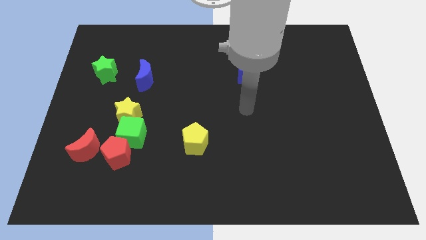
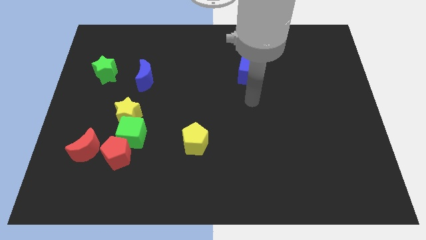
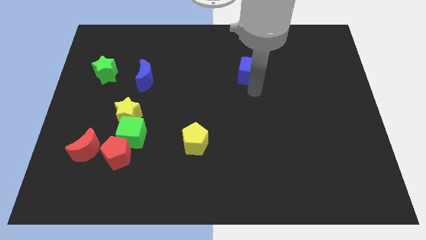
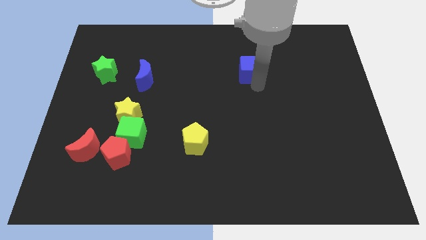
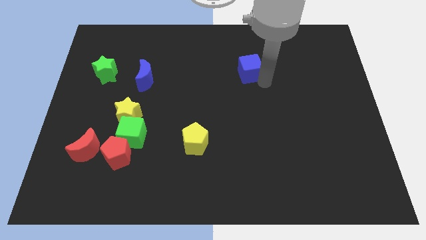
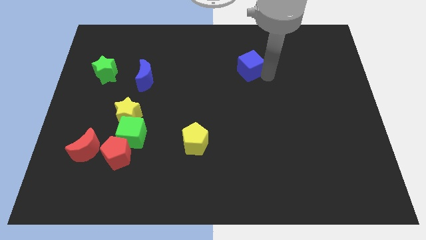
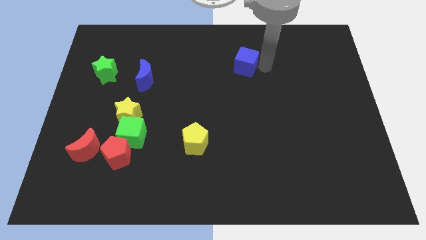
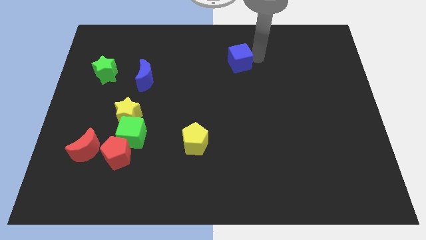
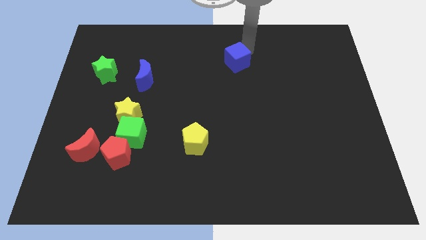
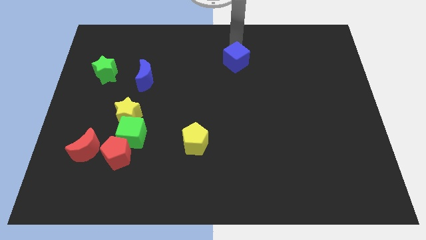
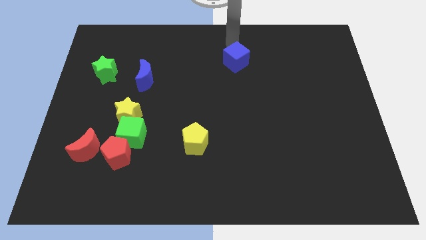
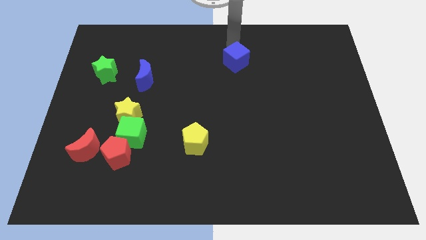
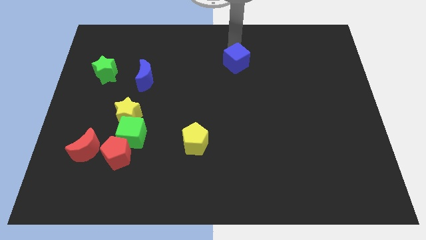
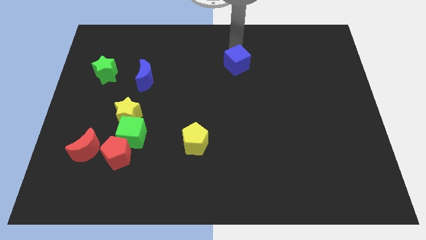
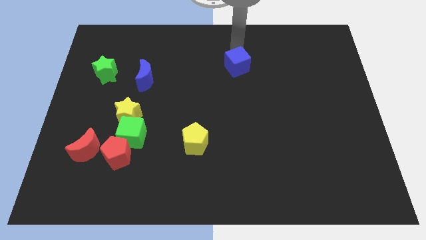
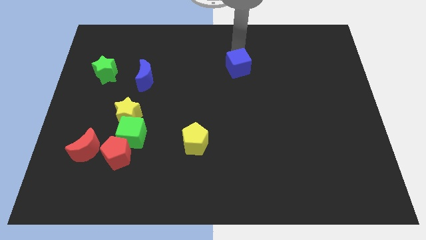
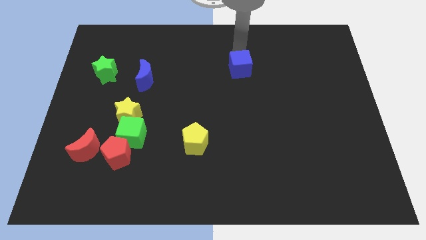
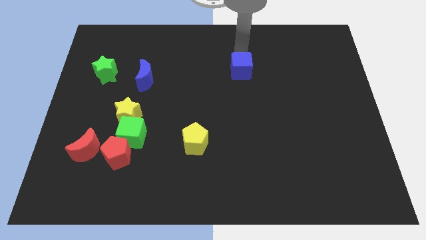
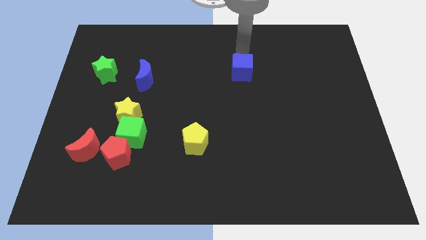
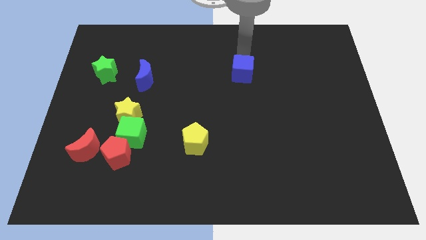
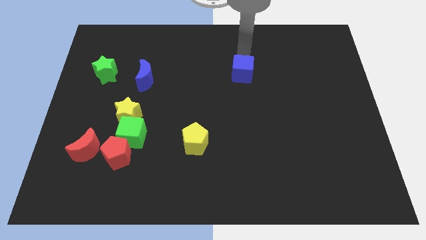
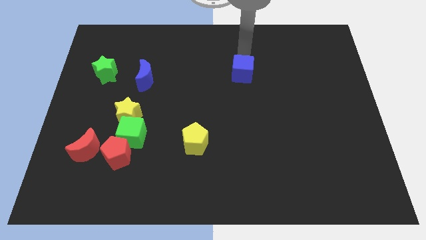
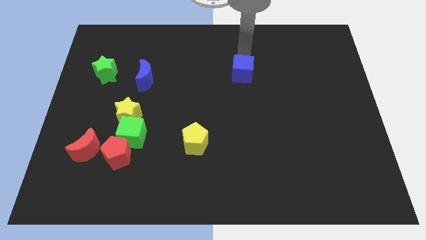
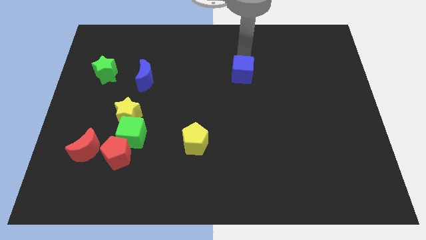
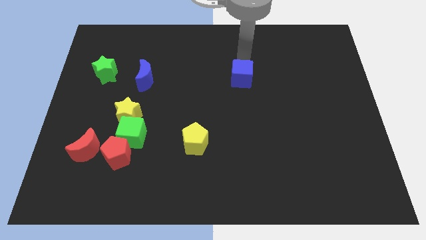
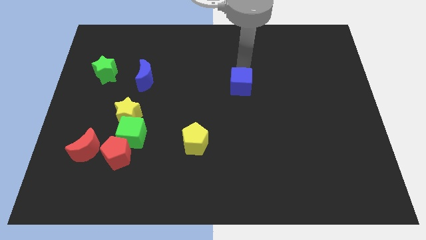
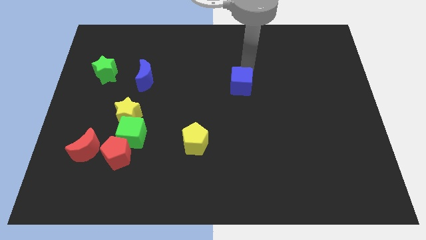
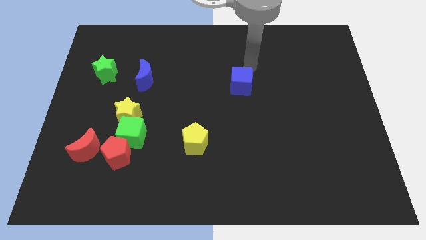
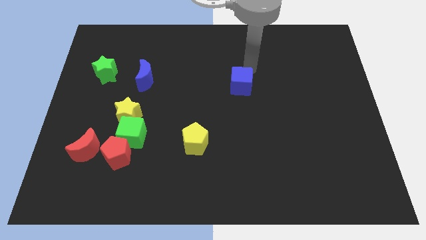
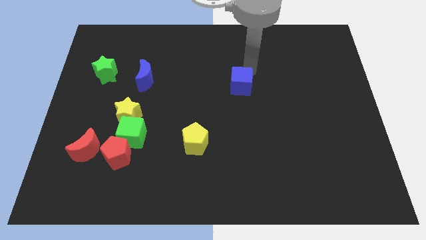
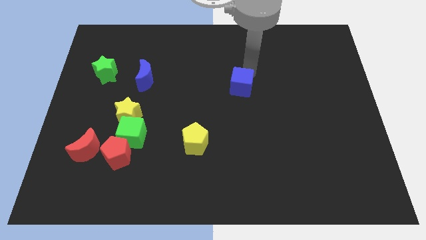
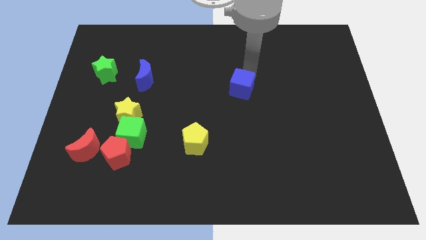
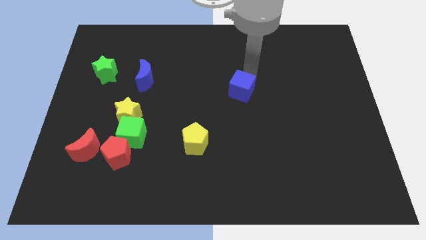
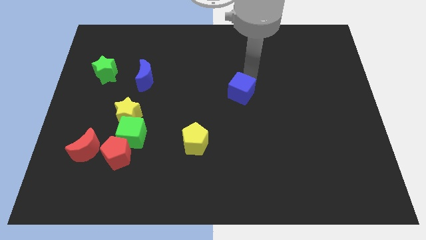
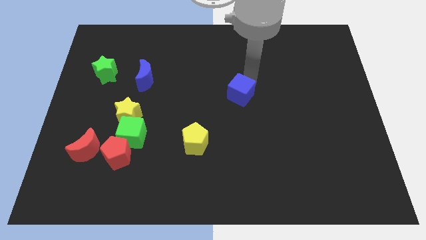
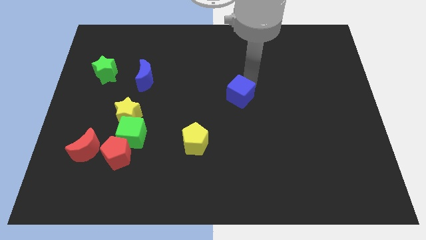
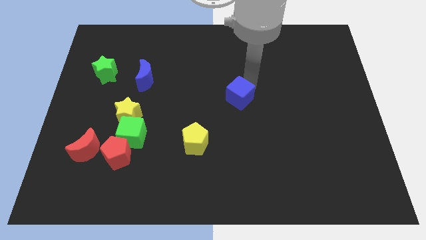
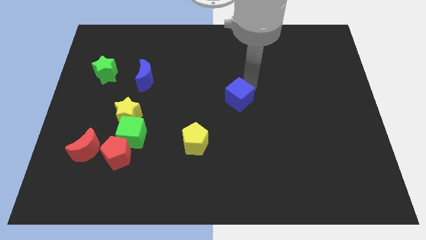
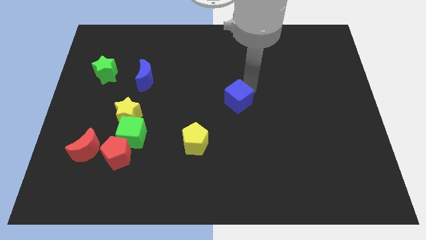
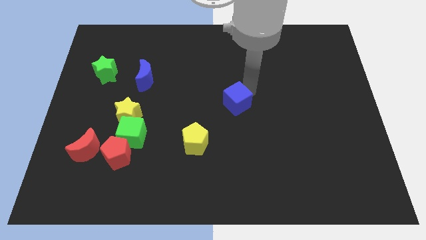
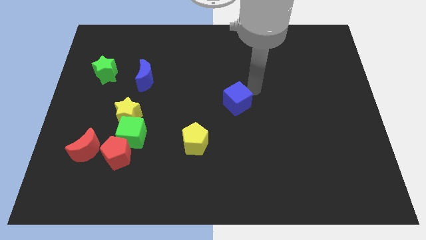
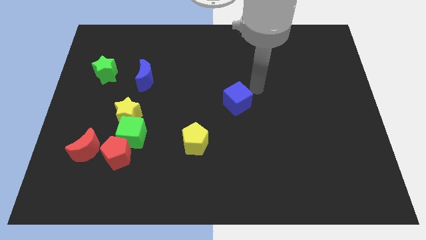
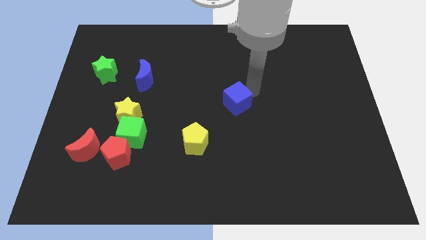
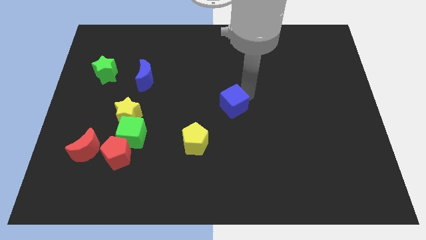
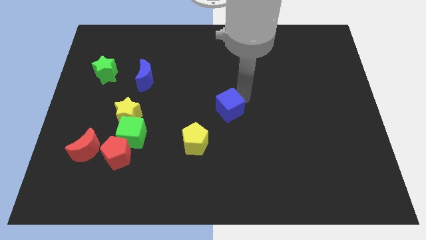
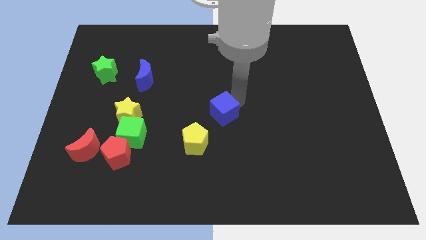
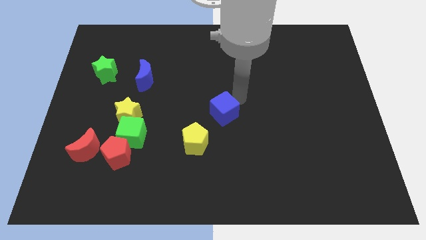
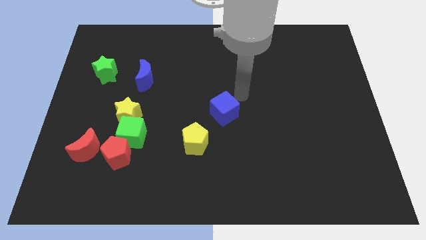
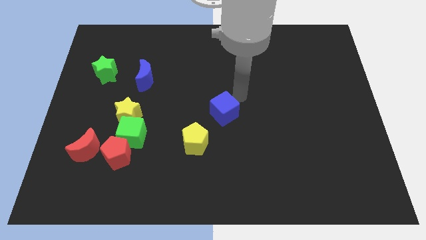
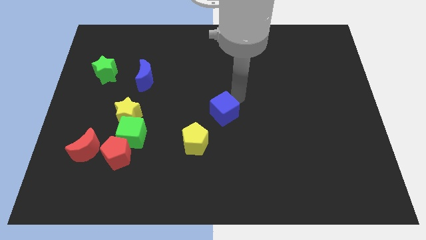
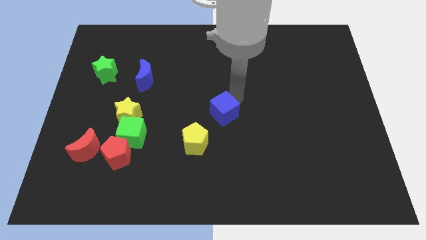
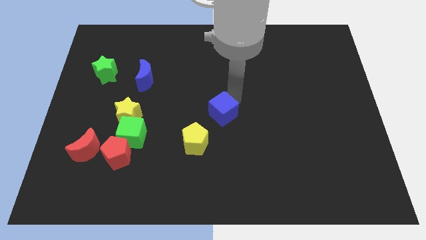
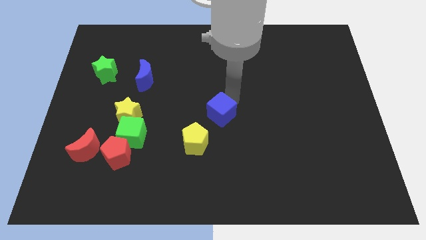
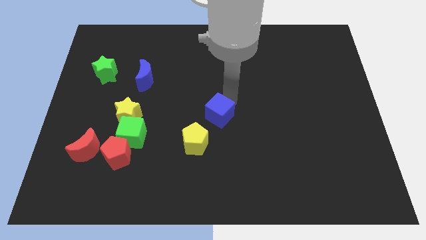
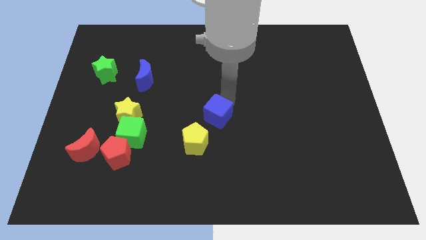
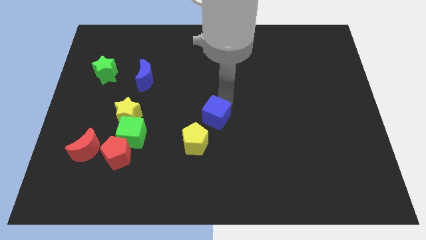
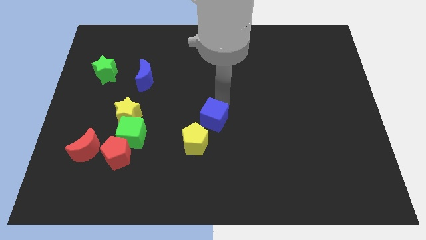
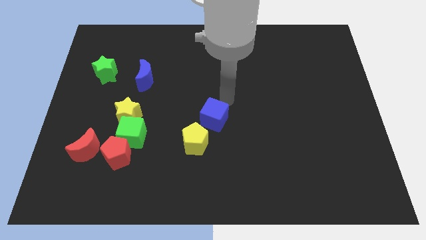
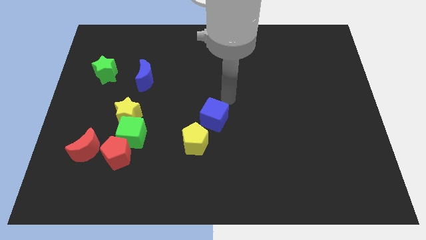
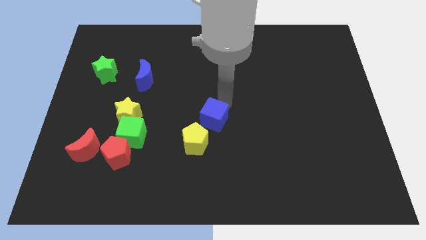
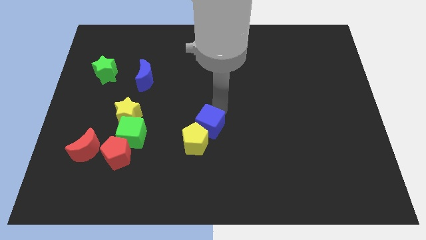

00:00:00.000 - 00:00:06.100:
push the blue cube close to the yellow pentagon

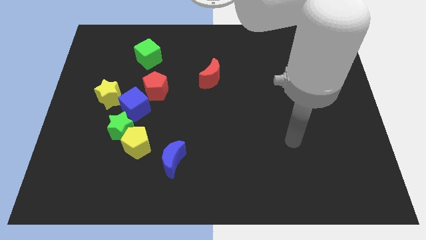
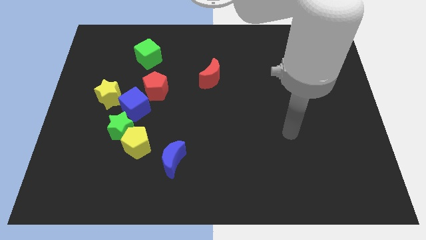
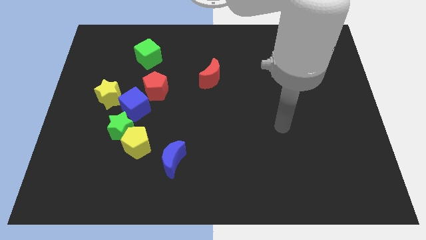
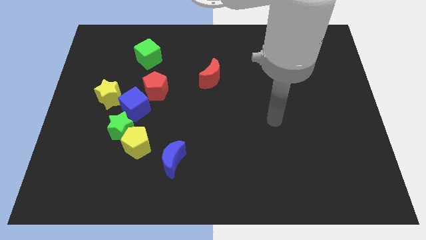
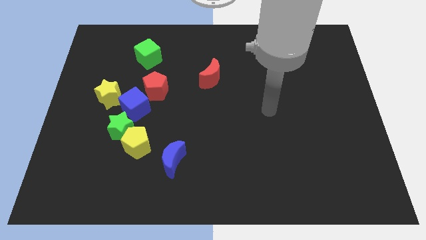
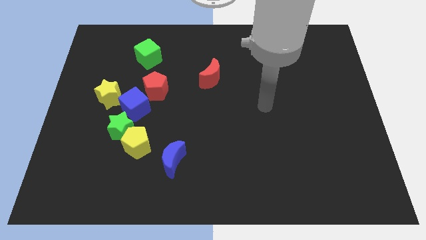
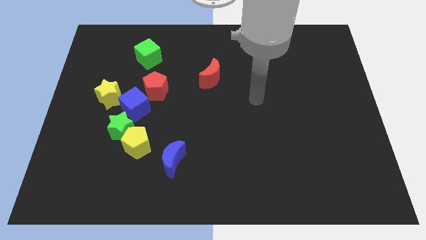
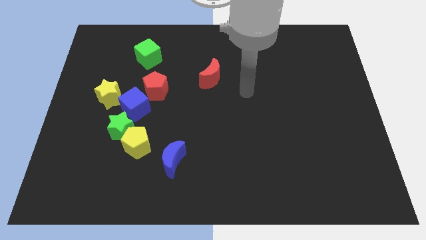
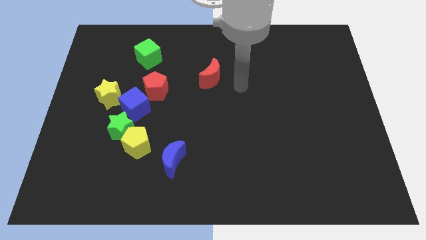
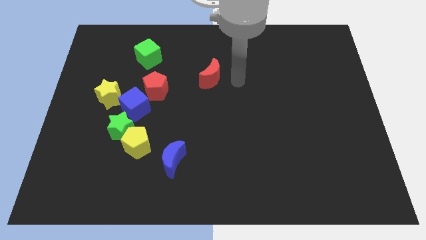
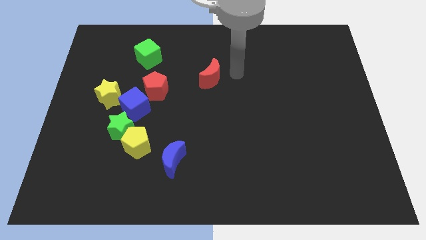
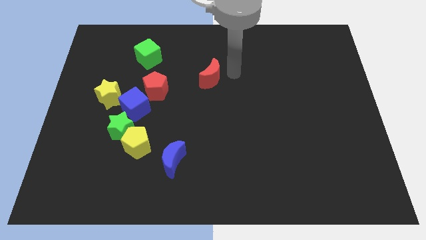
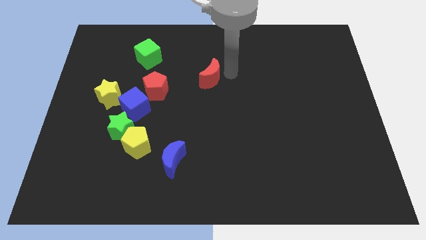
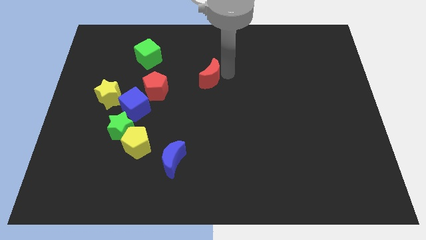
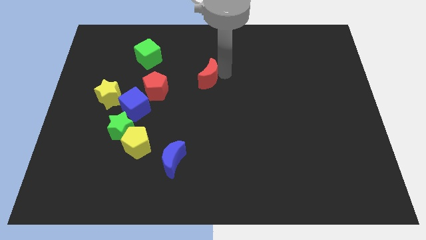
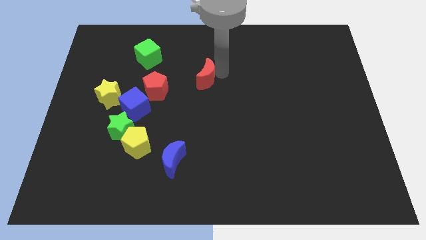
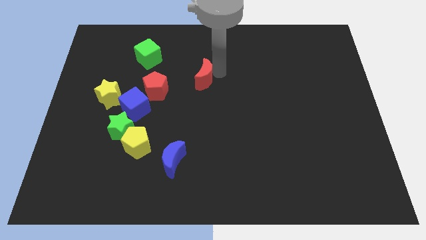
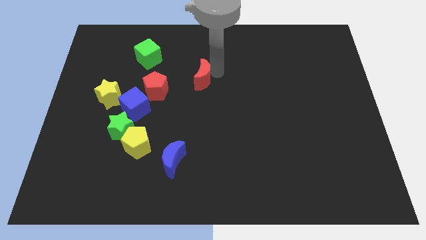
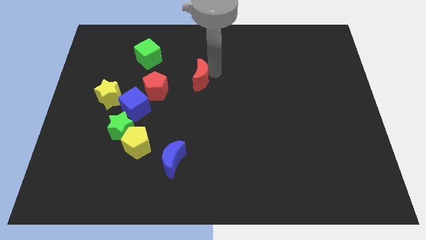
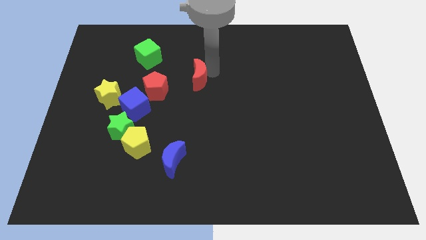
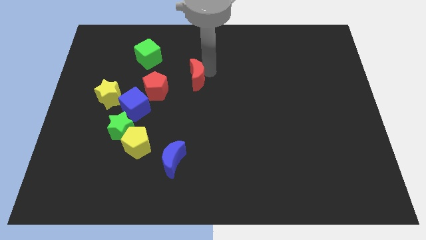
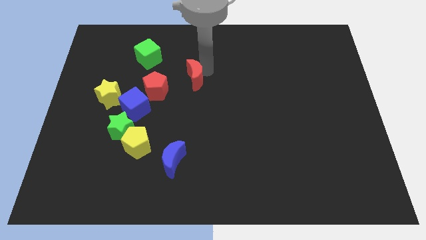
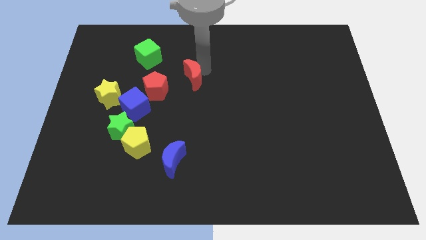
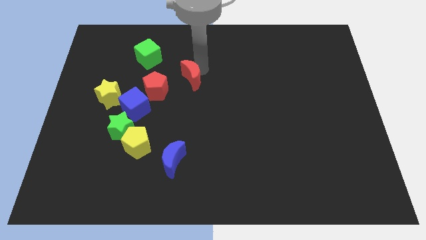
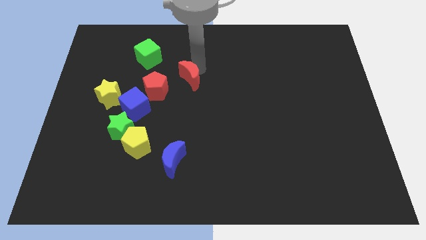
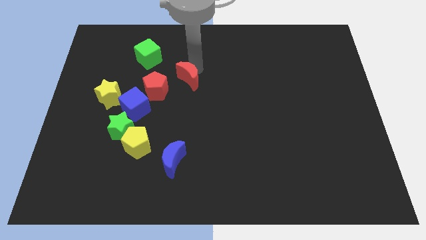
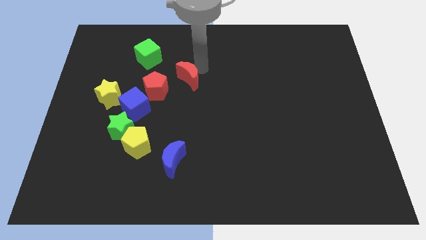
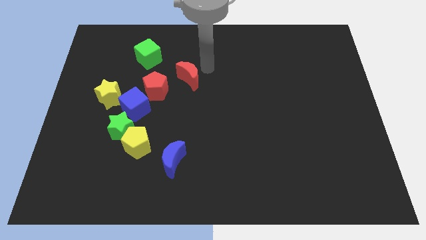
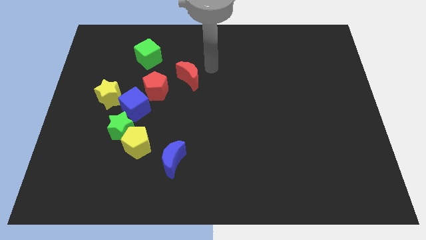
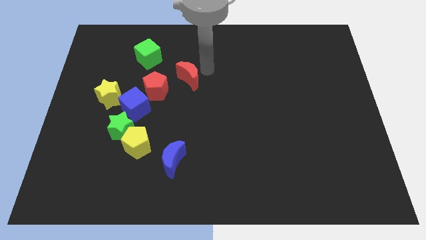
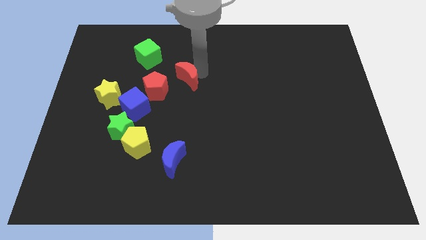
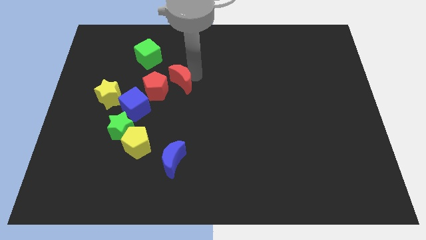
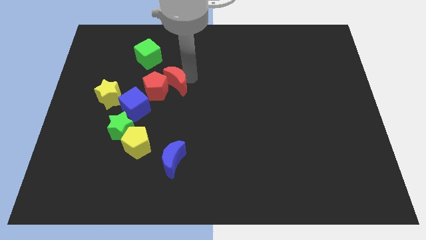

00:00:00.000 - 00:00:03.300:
slide the red moon next to the red pentagon
